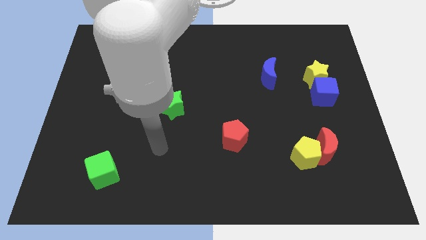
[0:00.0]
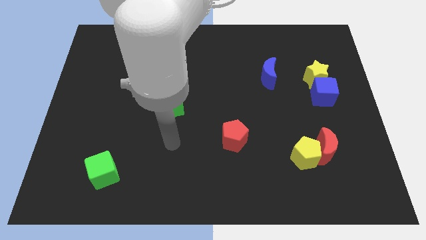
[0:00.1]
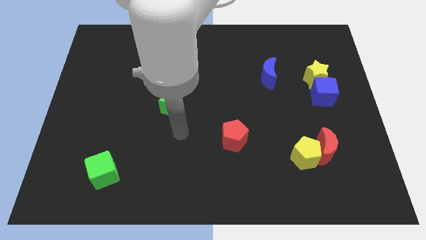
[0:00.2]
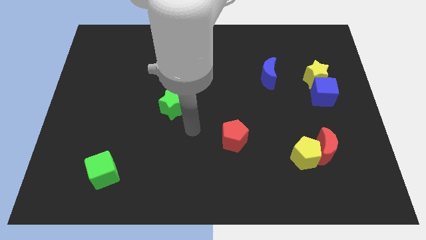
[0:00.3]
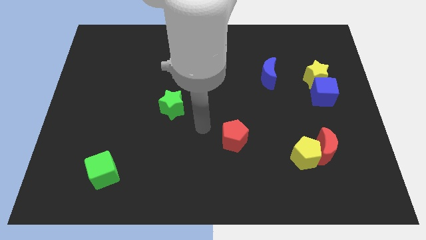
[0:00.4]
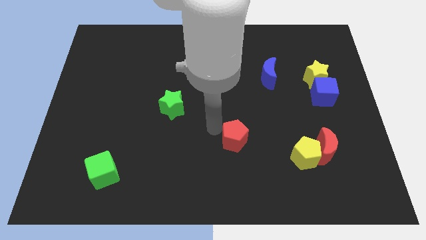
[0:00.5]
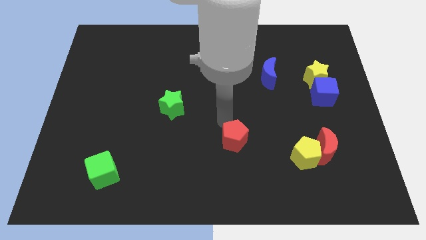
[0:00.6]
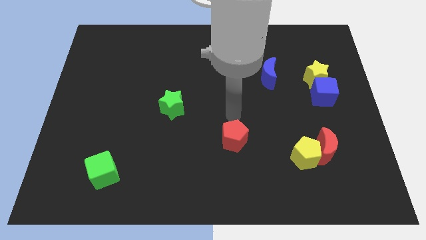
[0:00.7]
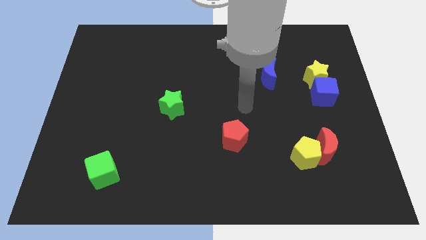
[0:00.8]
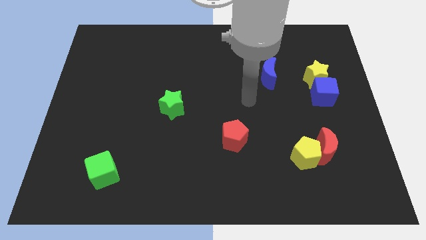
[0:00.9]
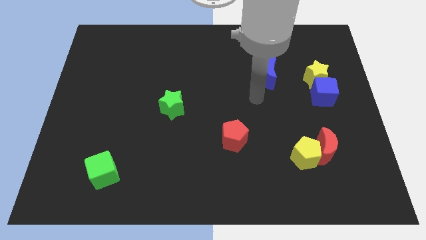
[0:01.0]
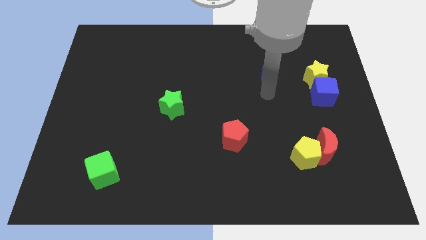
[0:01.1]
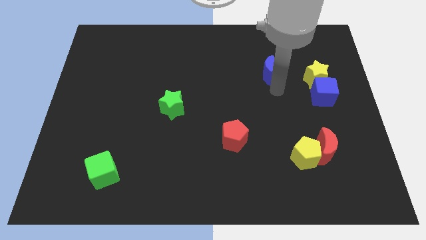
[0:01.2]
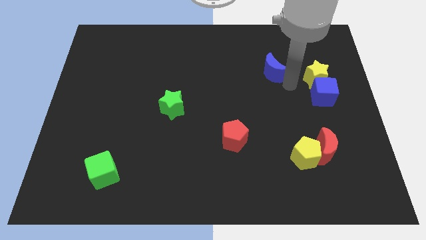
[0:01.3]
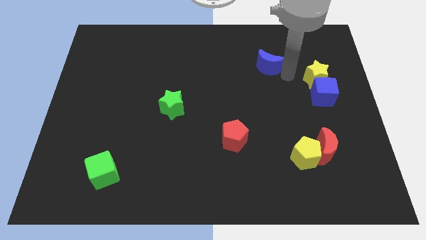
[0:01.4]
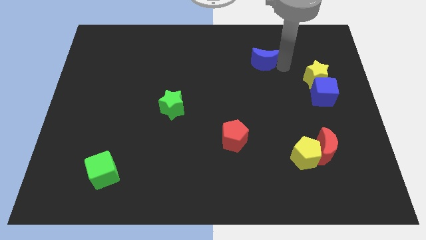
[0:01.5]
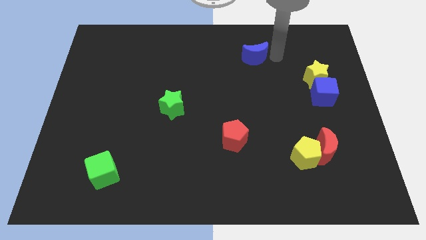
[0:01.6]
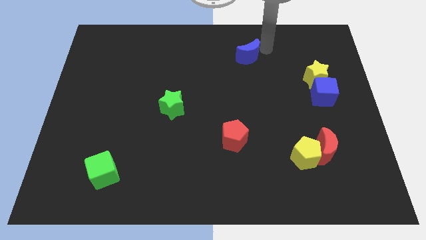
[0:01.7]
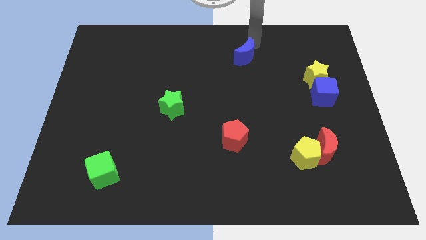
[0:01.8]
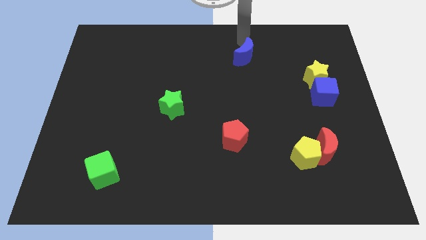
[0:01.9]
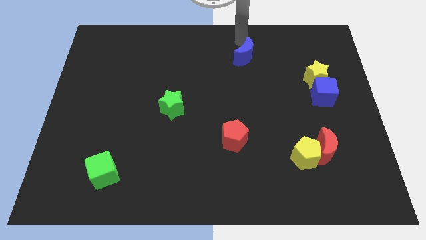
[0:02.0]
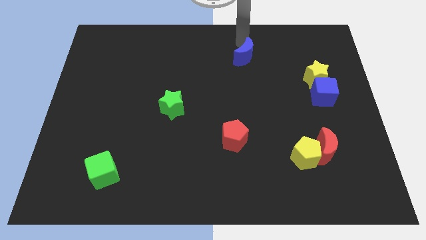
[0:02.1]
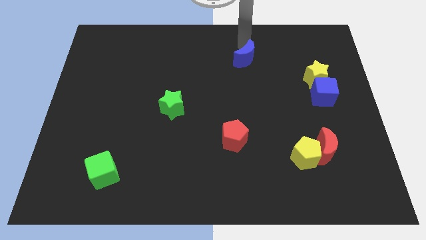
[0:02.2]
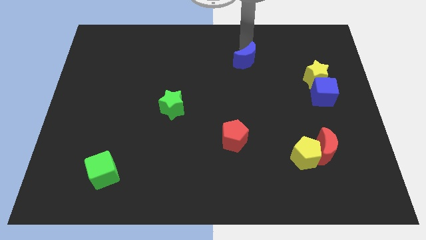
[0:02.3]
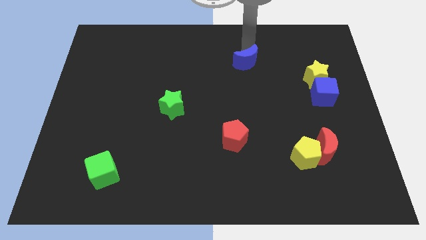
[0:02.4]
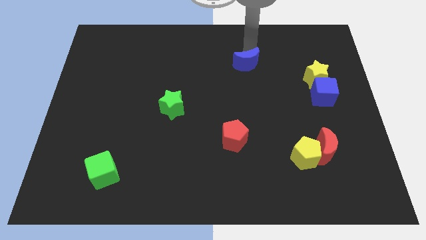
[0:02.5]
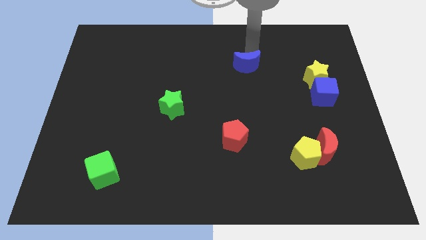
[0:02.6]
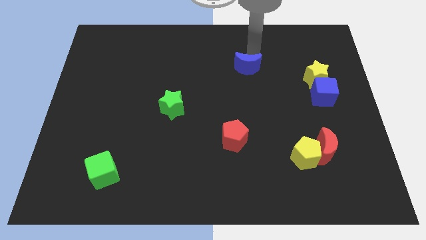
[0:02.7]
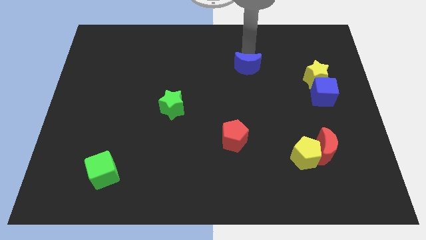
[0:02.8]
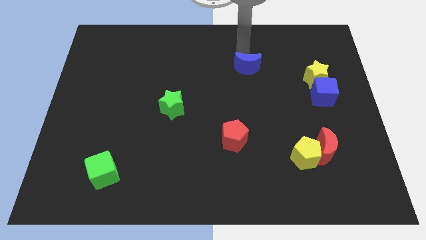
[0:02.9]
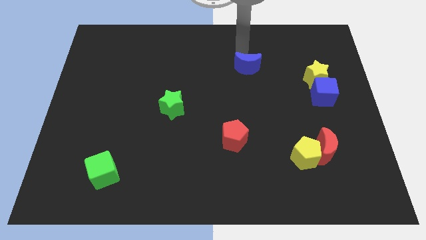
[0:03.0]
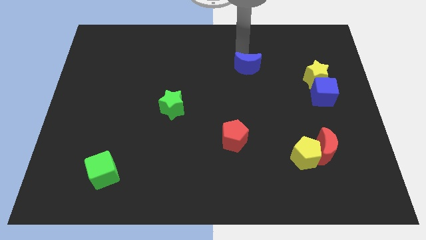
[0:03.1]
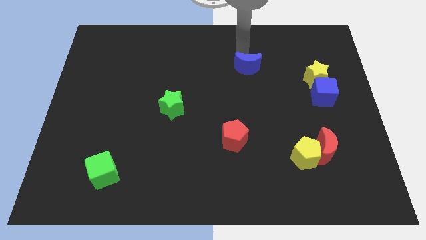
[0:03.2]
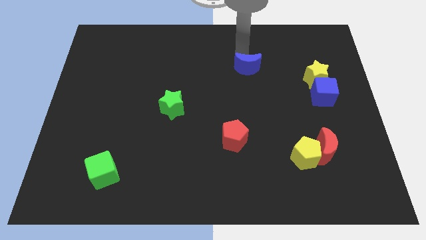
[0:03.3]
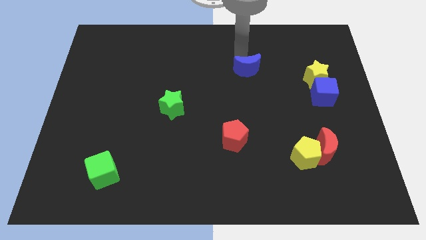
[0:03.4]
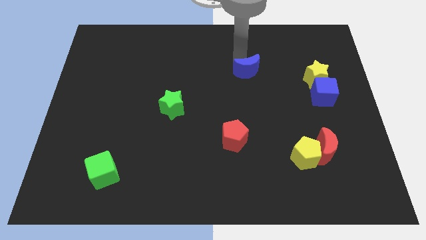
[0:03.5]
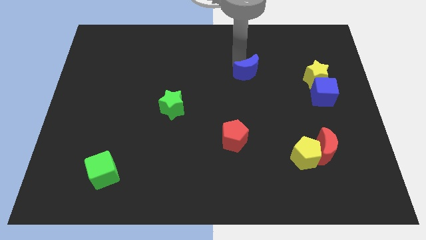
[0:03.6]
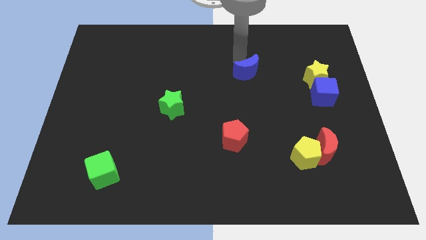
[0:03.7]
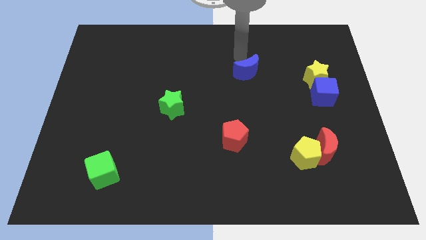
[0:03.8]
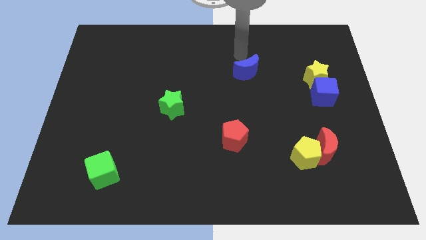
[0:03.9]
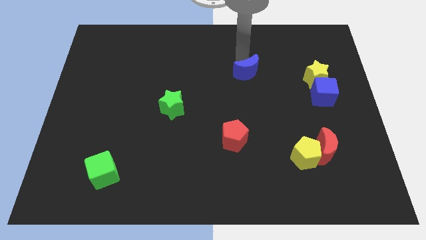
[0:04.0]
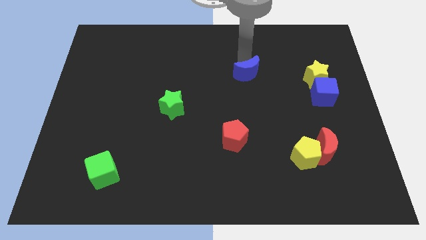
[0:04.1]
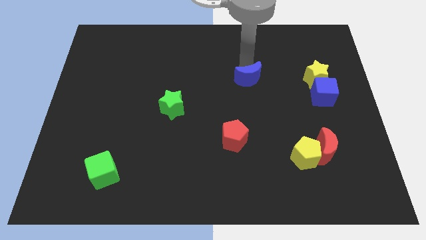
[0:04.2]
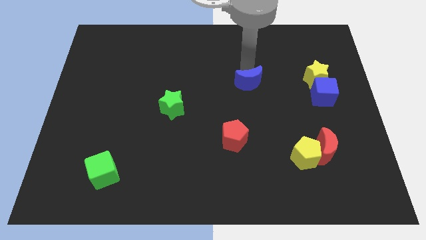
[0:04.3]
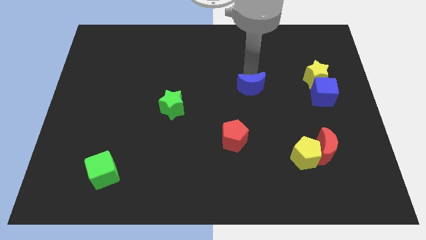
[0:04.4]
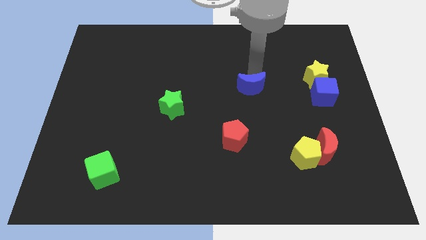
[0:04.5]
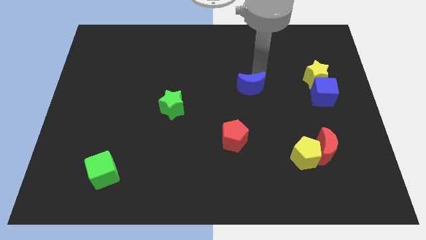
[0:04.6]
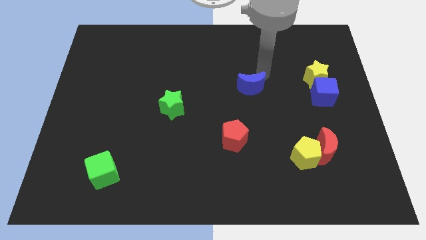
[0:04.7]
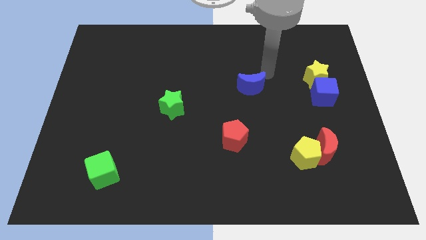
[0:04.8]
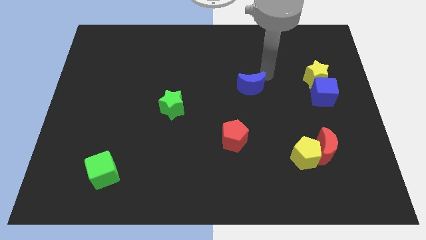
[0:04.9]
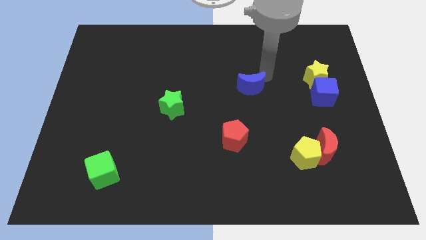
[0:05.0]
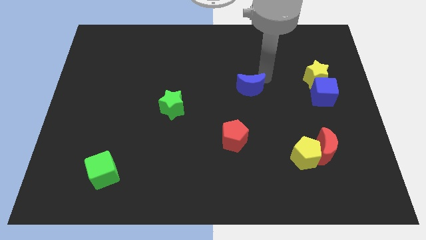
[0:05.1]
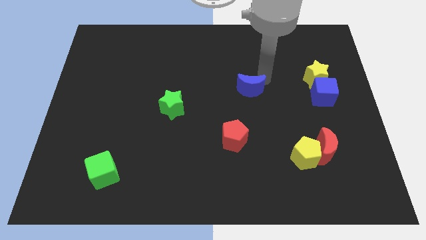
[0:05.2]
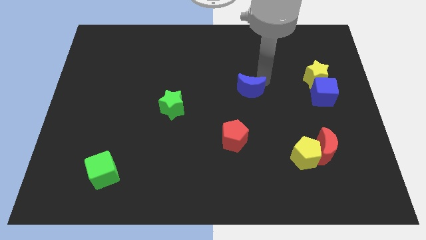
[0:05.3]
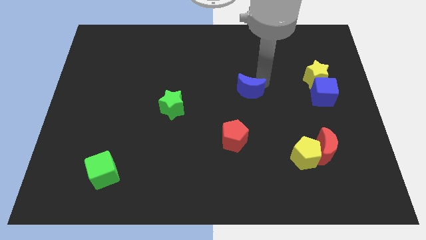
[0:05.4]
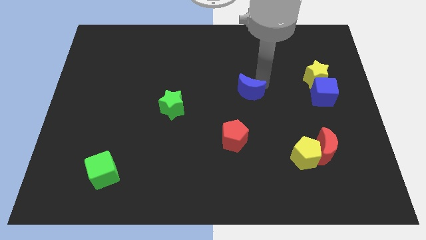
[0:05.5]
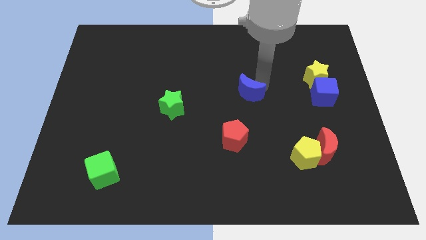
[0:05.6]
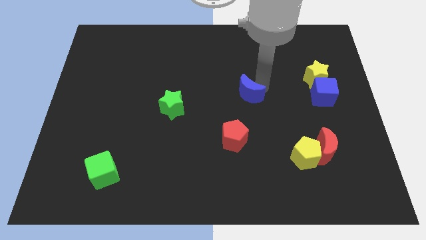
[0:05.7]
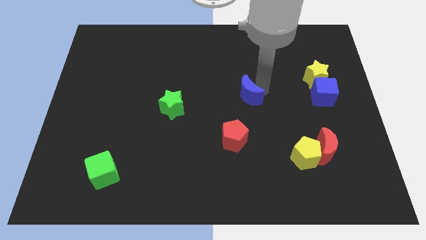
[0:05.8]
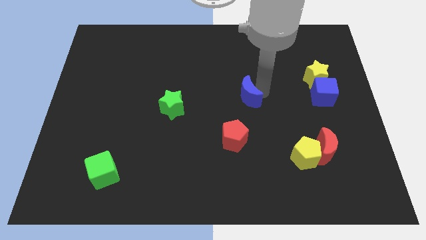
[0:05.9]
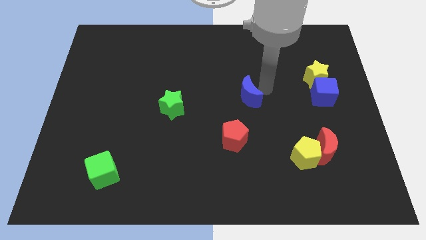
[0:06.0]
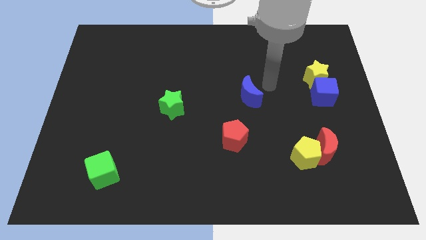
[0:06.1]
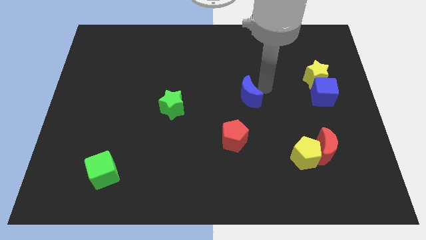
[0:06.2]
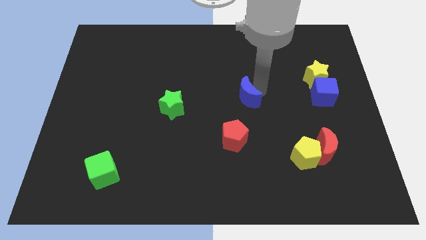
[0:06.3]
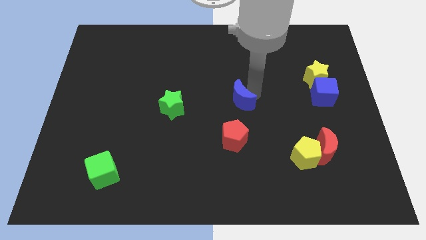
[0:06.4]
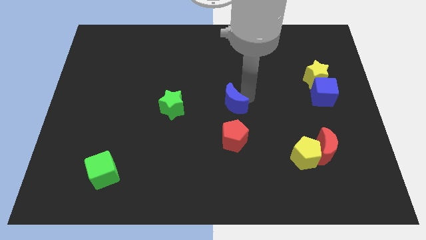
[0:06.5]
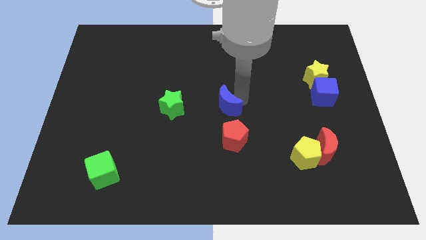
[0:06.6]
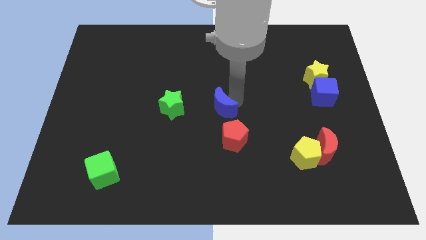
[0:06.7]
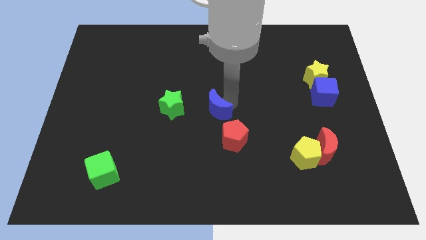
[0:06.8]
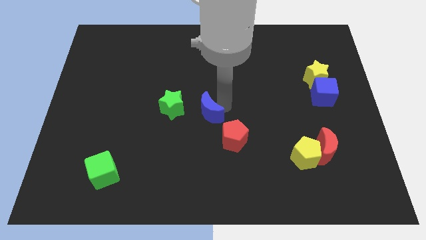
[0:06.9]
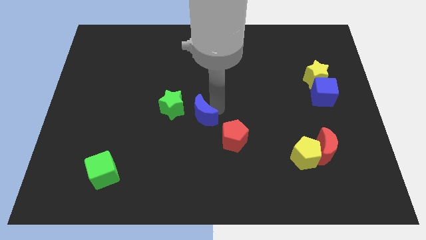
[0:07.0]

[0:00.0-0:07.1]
put the blue moon to the bottom right side of the green star
